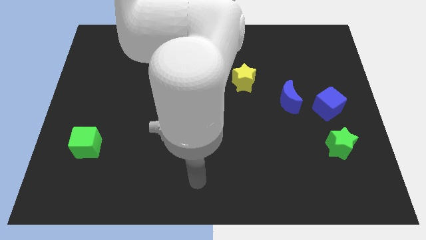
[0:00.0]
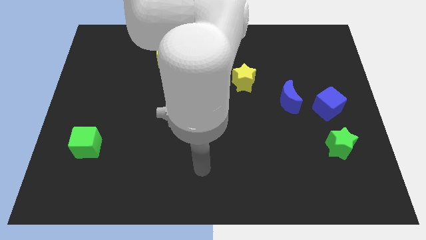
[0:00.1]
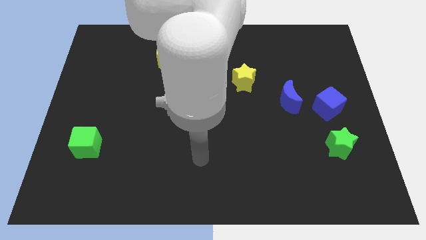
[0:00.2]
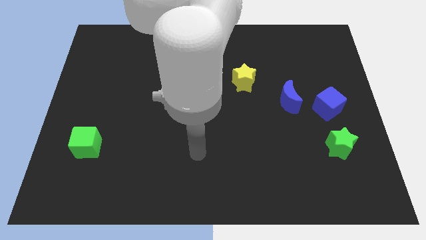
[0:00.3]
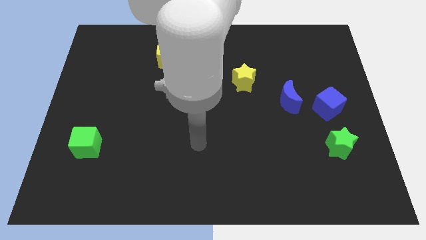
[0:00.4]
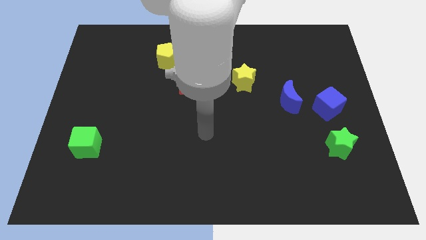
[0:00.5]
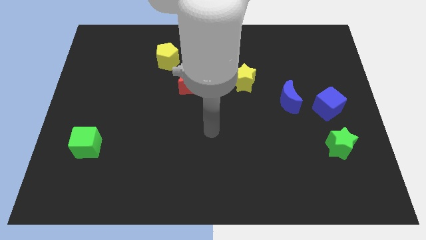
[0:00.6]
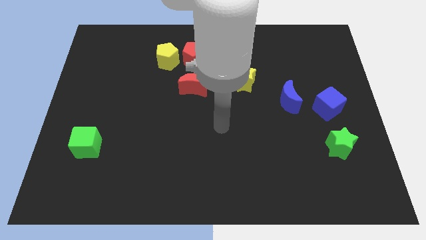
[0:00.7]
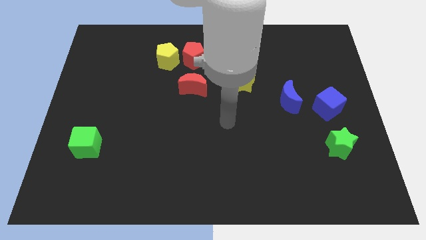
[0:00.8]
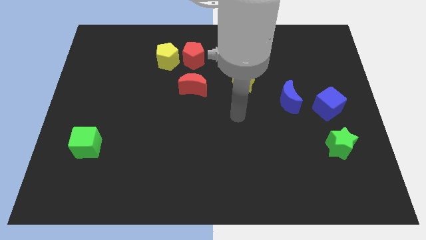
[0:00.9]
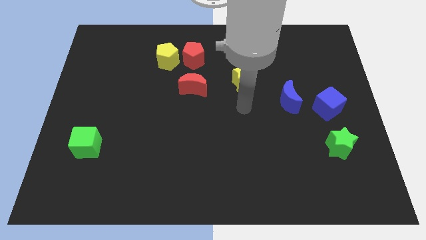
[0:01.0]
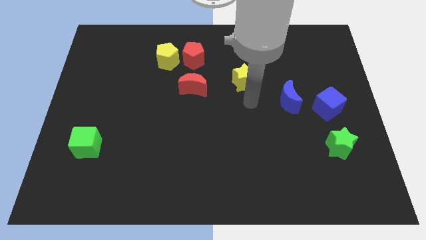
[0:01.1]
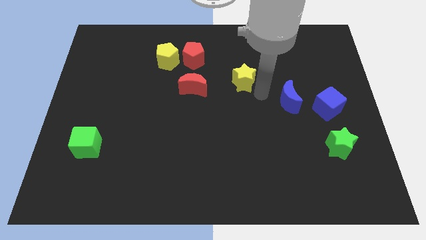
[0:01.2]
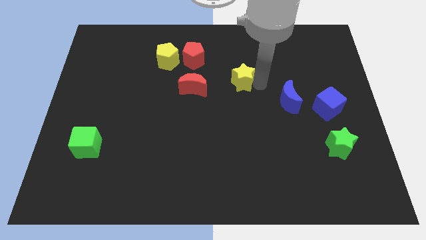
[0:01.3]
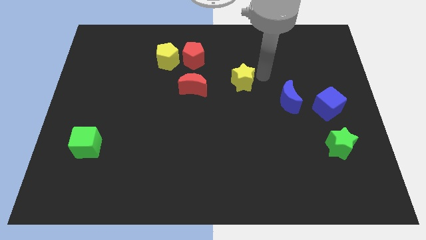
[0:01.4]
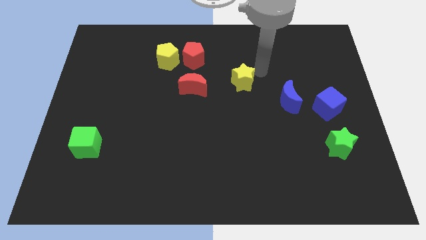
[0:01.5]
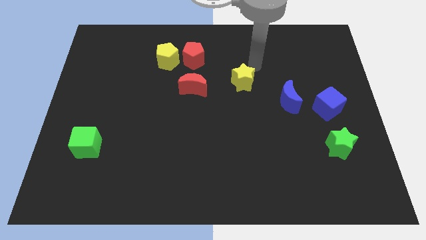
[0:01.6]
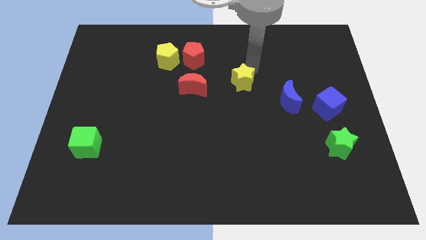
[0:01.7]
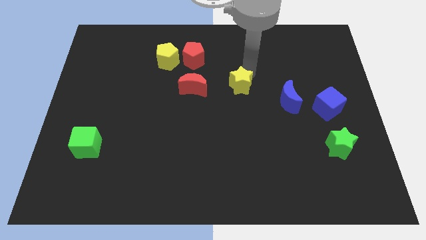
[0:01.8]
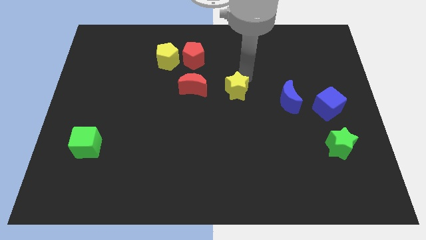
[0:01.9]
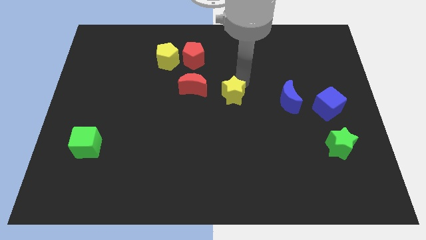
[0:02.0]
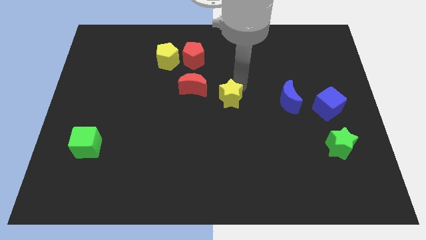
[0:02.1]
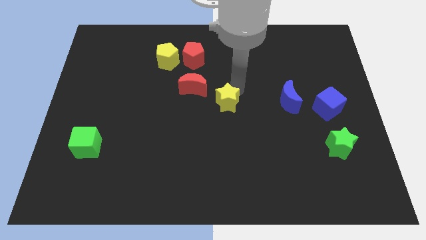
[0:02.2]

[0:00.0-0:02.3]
slide the yellow star a bit down and then to the left

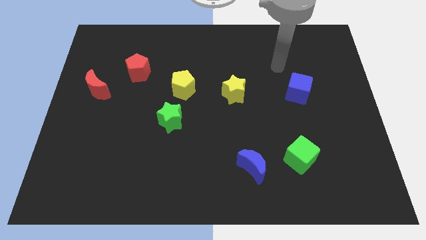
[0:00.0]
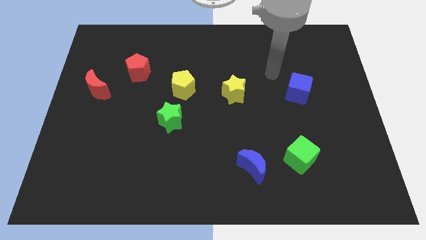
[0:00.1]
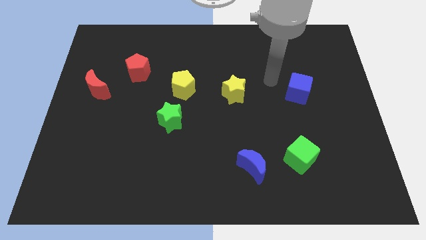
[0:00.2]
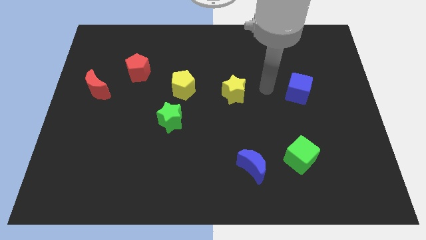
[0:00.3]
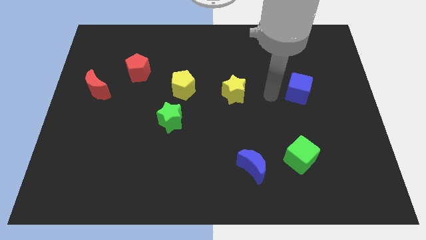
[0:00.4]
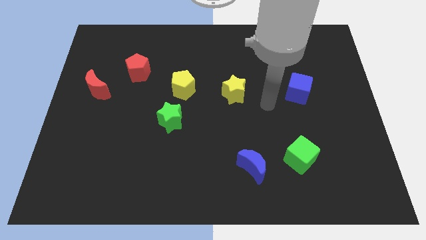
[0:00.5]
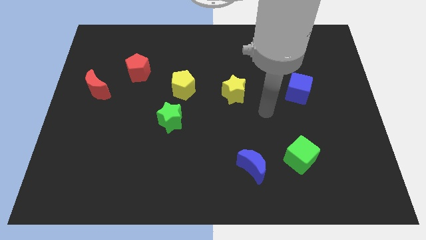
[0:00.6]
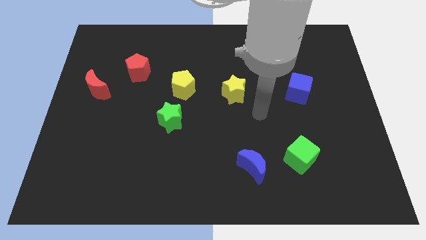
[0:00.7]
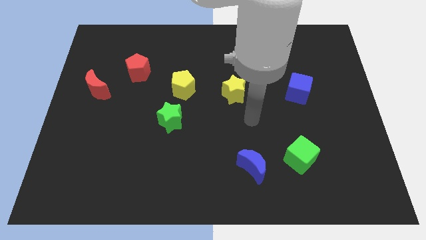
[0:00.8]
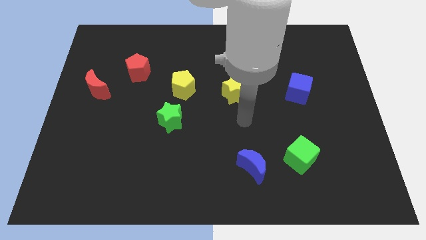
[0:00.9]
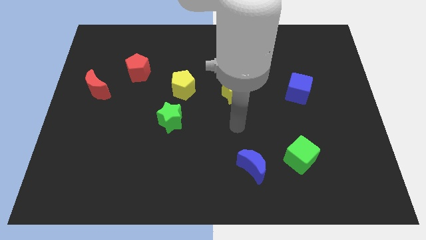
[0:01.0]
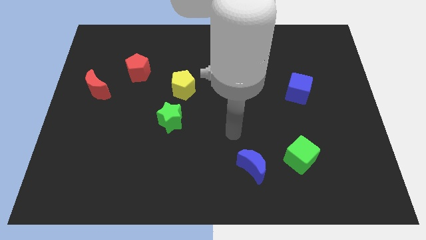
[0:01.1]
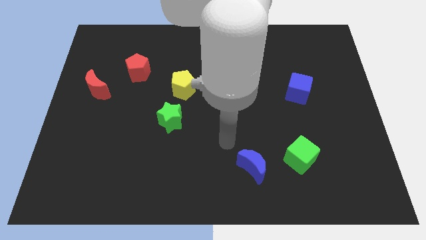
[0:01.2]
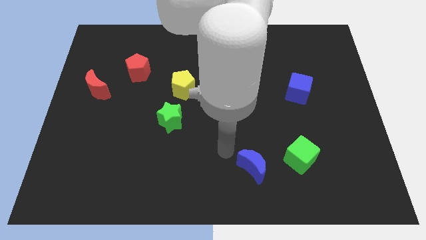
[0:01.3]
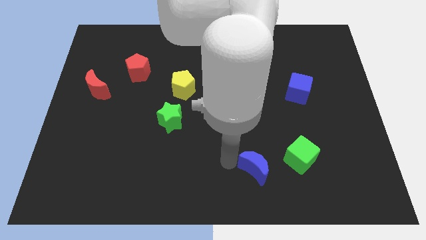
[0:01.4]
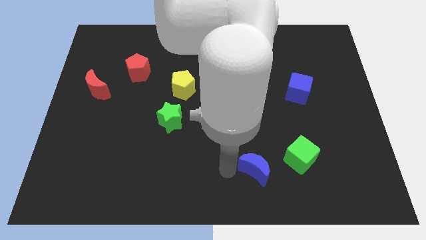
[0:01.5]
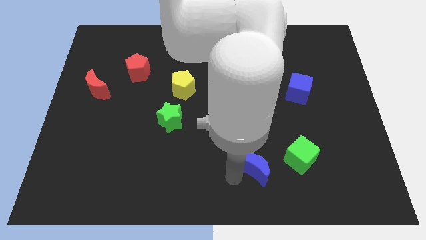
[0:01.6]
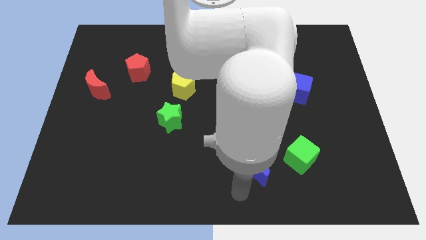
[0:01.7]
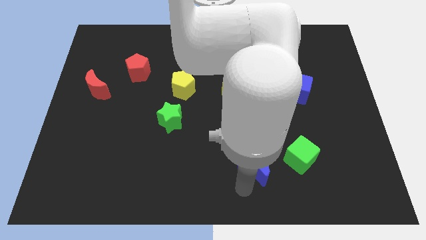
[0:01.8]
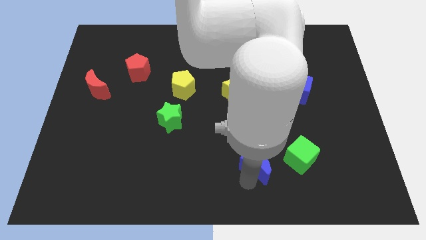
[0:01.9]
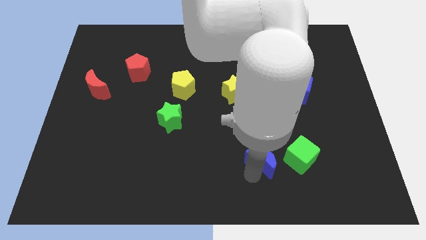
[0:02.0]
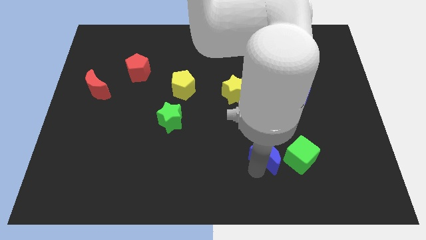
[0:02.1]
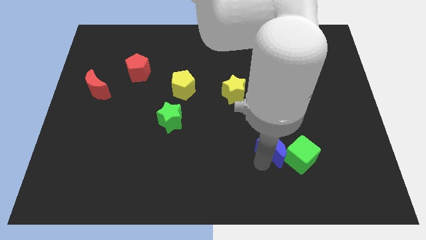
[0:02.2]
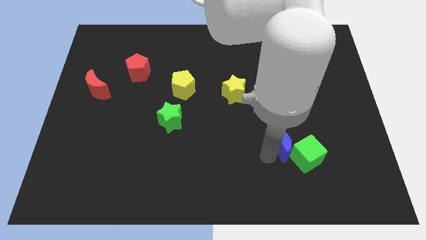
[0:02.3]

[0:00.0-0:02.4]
slightly move the blue moon up and right

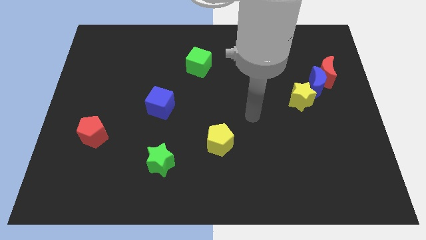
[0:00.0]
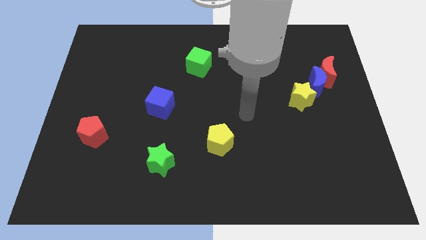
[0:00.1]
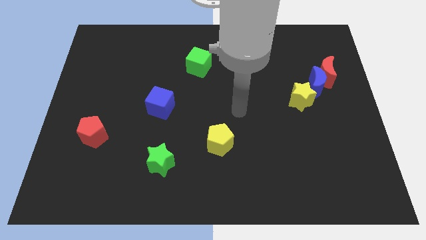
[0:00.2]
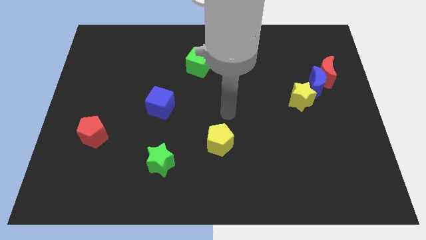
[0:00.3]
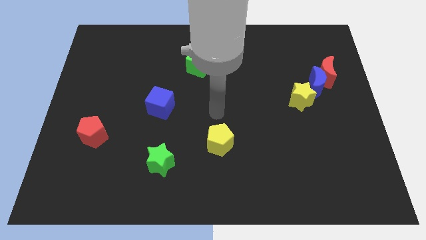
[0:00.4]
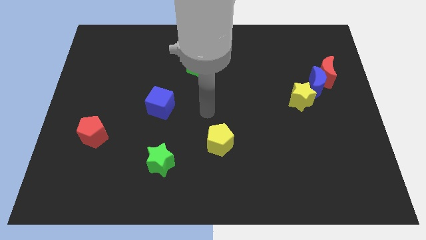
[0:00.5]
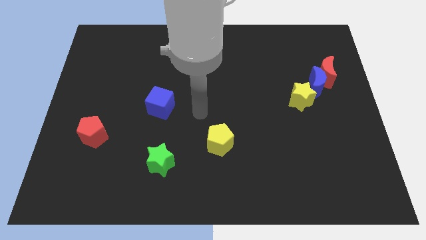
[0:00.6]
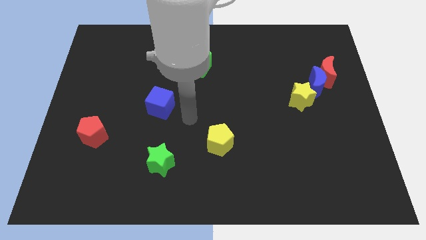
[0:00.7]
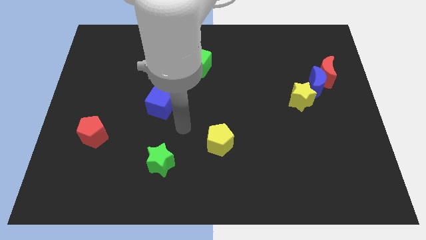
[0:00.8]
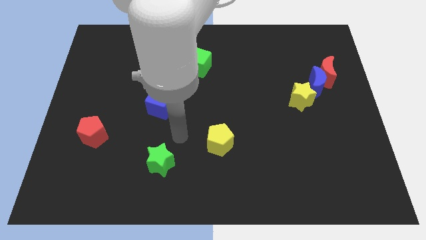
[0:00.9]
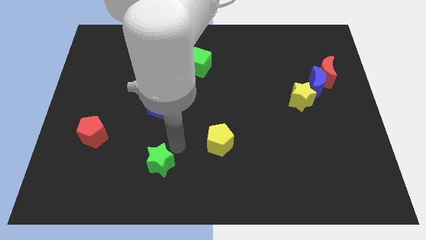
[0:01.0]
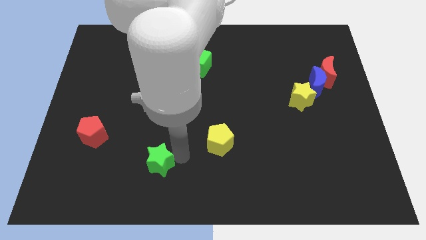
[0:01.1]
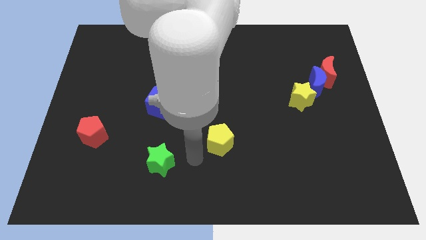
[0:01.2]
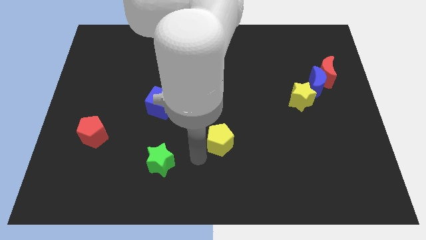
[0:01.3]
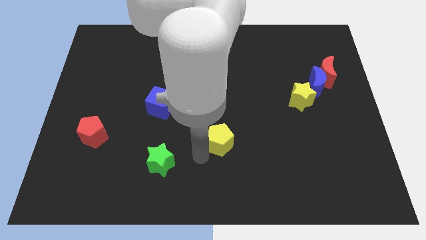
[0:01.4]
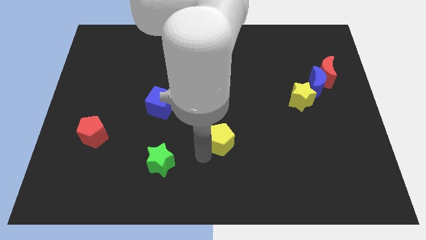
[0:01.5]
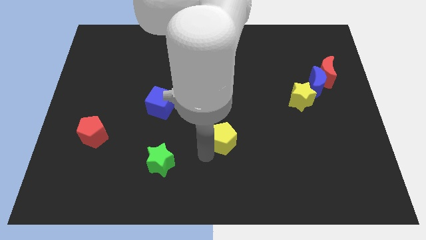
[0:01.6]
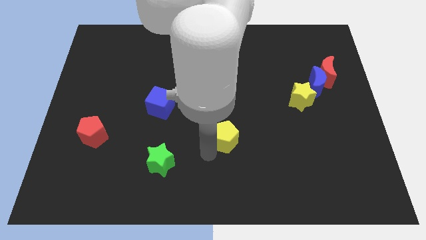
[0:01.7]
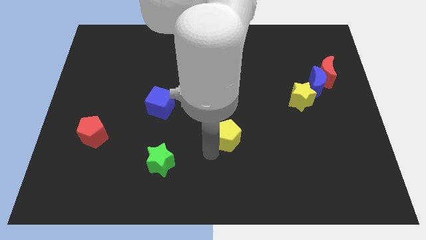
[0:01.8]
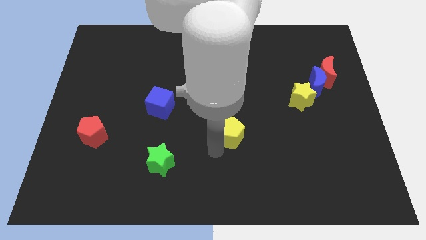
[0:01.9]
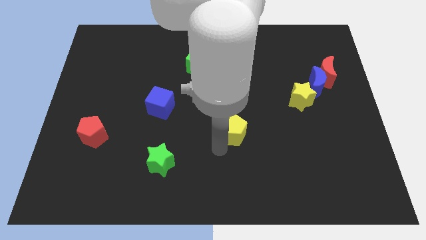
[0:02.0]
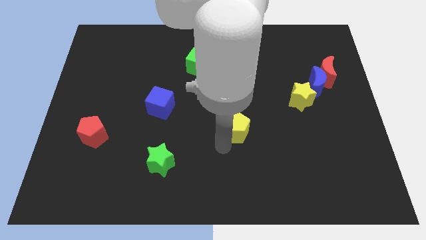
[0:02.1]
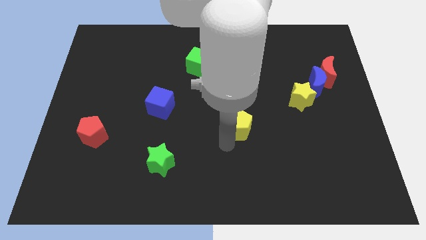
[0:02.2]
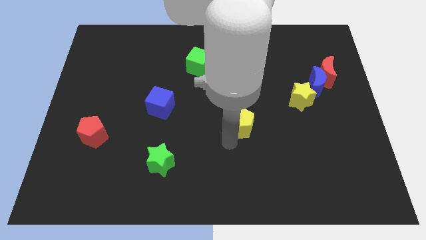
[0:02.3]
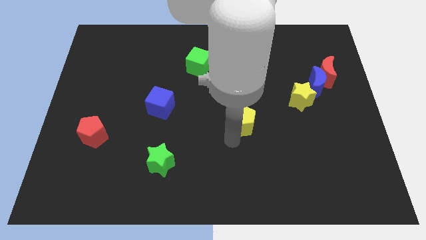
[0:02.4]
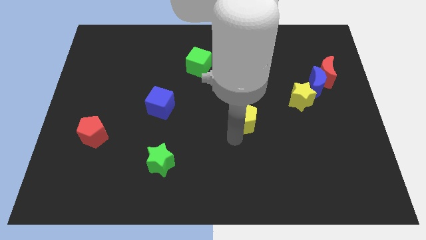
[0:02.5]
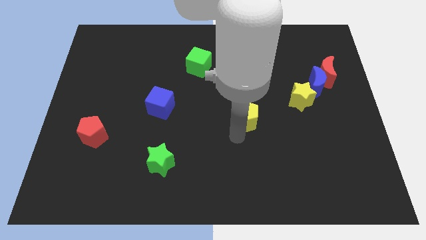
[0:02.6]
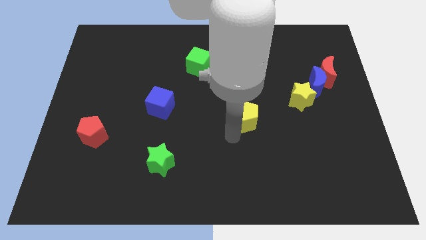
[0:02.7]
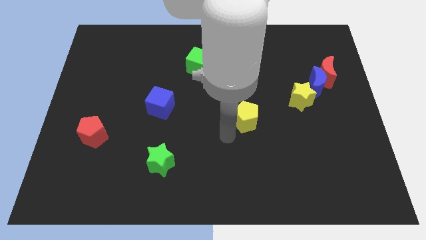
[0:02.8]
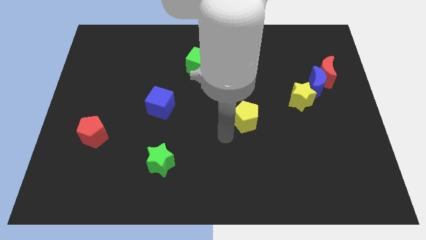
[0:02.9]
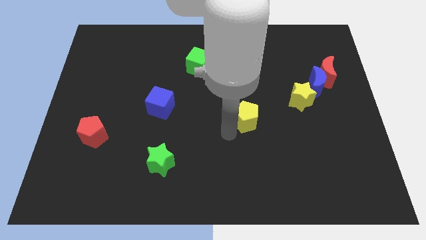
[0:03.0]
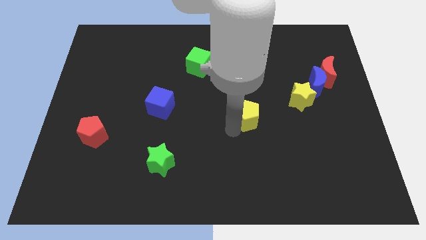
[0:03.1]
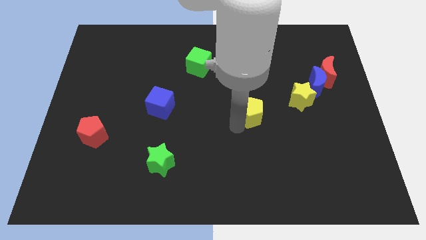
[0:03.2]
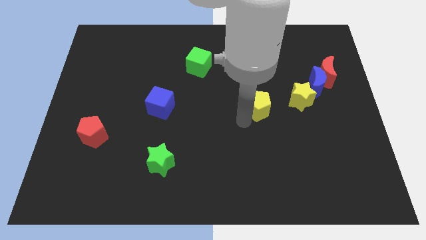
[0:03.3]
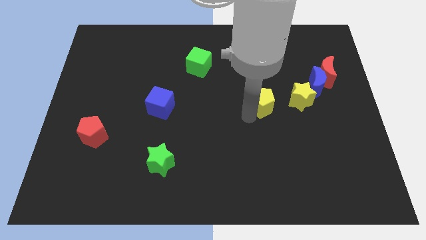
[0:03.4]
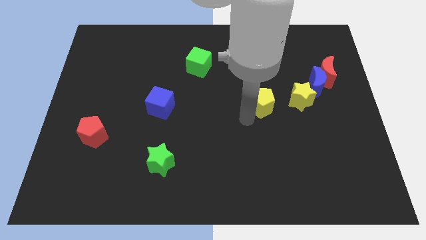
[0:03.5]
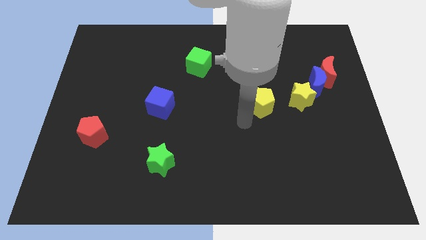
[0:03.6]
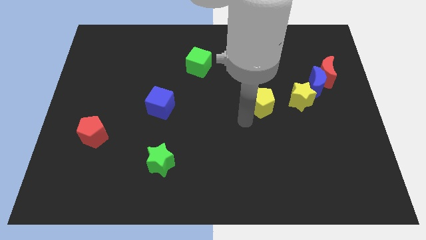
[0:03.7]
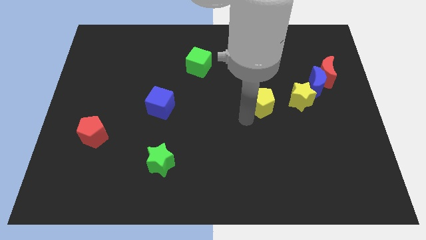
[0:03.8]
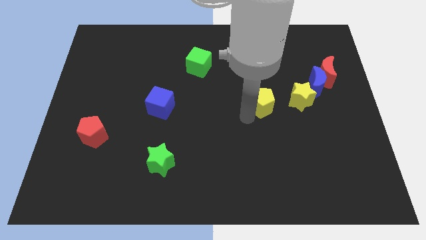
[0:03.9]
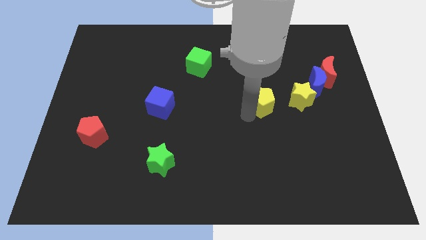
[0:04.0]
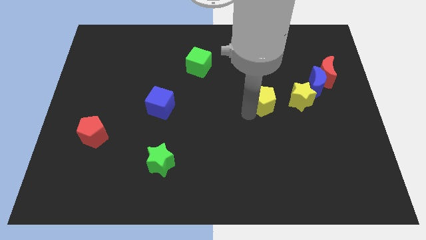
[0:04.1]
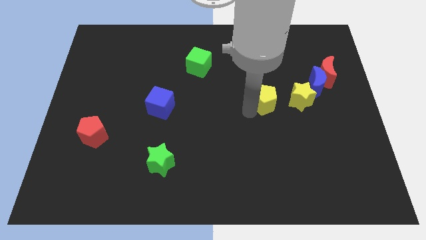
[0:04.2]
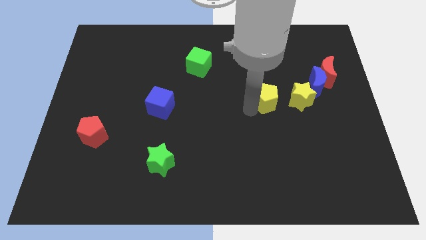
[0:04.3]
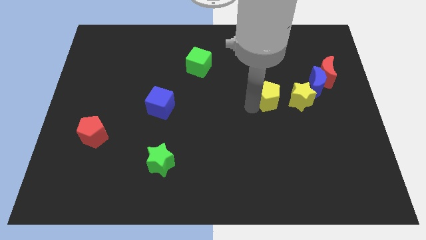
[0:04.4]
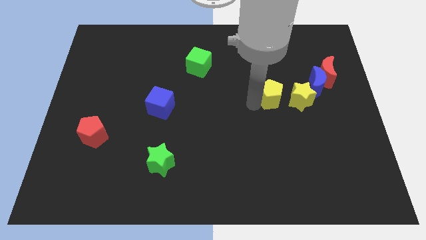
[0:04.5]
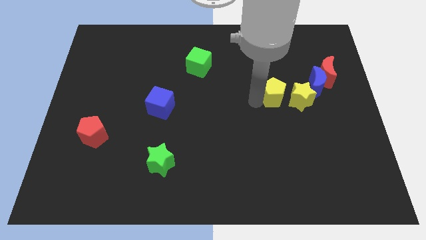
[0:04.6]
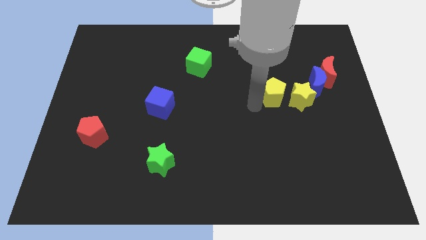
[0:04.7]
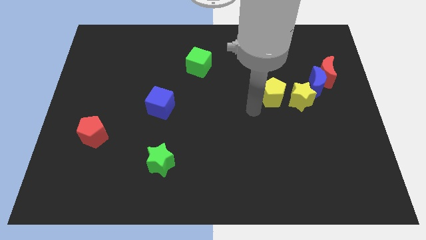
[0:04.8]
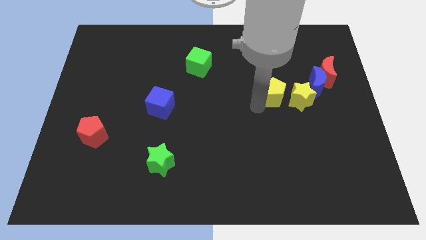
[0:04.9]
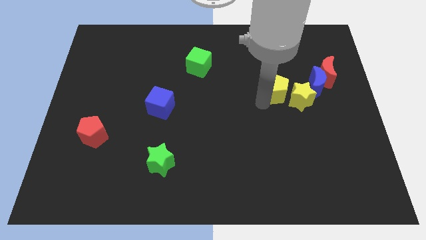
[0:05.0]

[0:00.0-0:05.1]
move the yellow pentagon up and to the right diagonally
